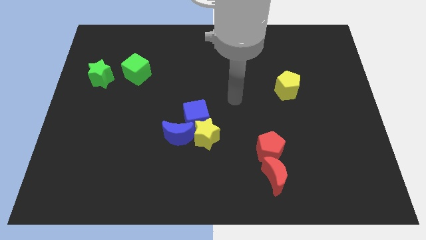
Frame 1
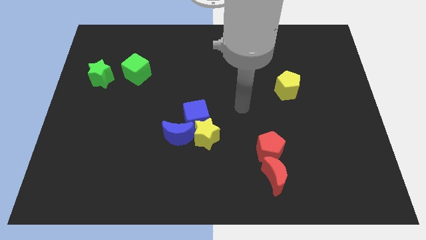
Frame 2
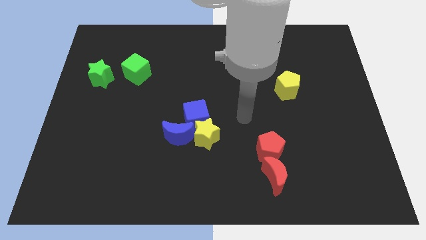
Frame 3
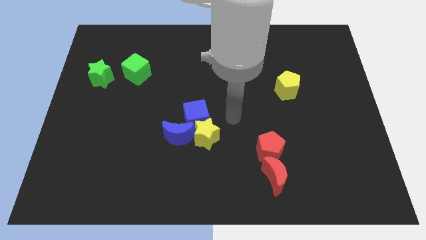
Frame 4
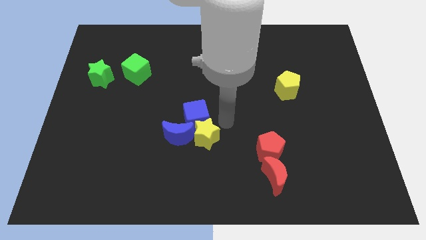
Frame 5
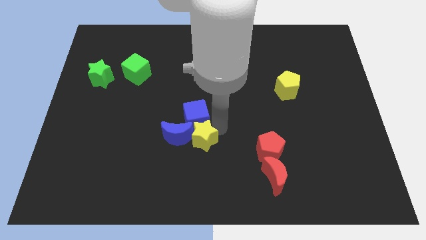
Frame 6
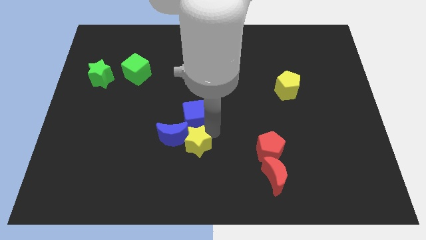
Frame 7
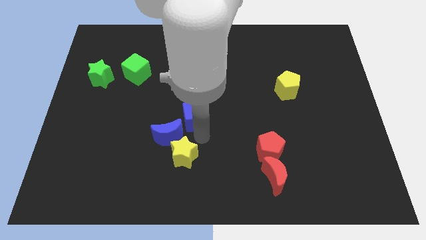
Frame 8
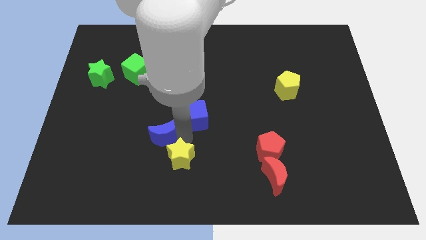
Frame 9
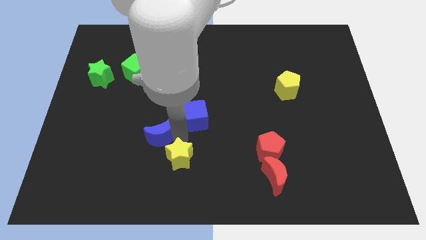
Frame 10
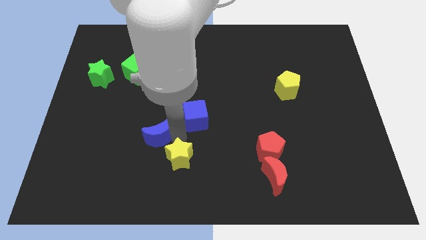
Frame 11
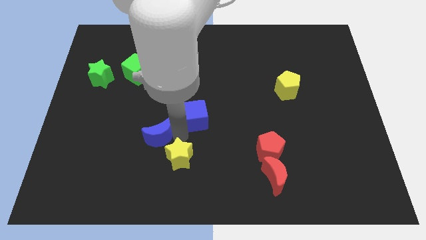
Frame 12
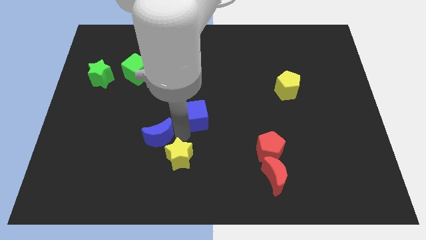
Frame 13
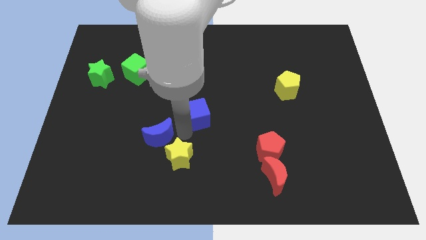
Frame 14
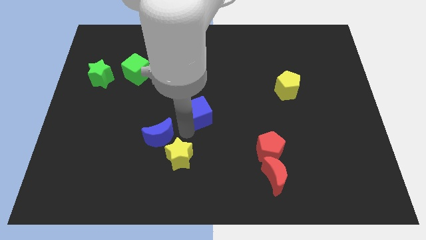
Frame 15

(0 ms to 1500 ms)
separate the blue cube from the yellow star and blue moon

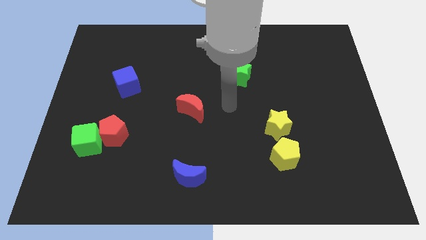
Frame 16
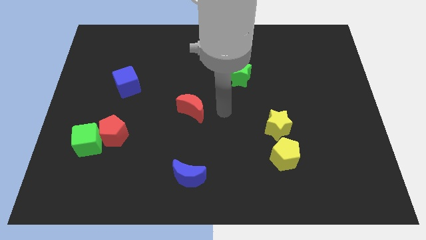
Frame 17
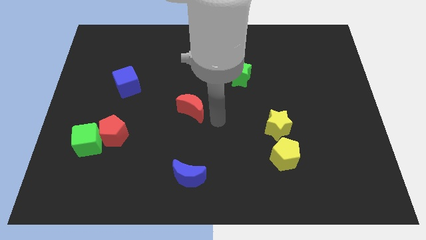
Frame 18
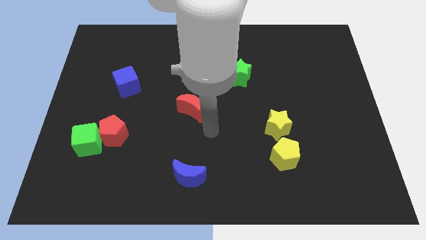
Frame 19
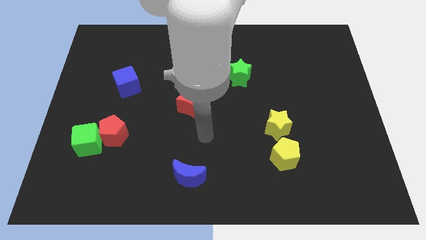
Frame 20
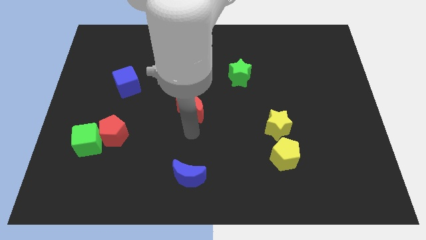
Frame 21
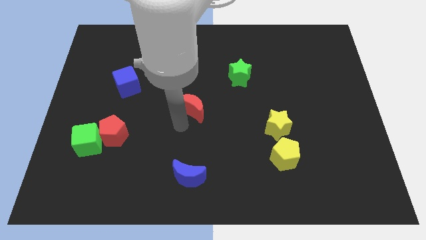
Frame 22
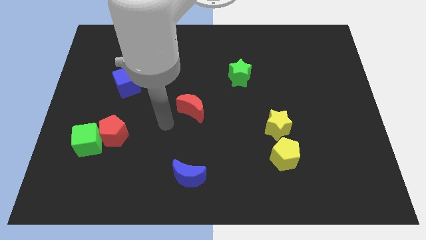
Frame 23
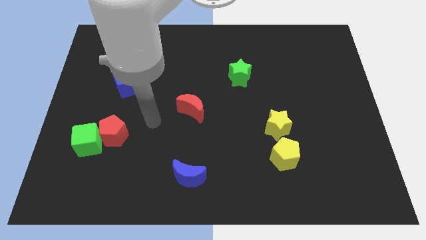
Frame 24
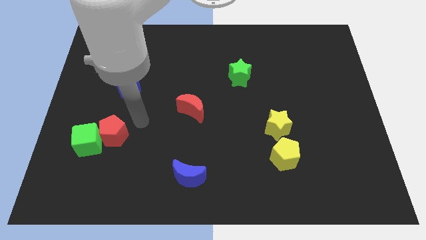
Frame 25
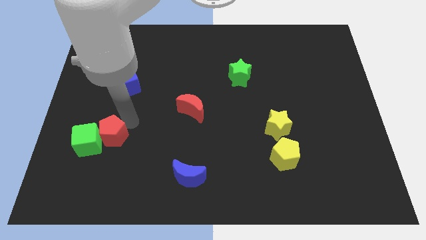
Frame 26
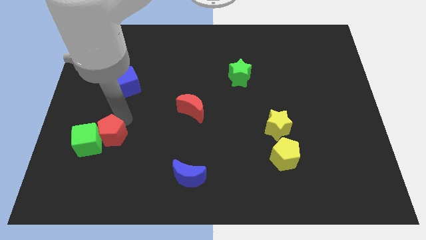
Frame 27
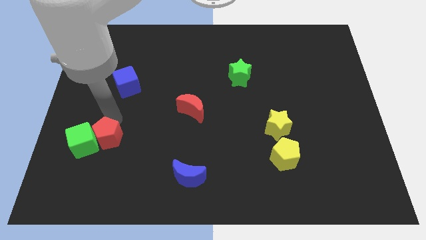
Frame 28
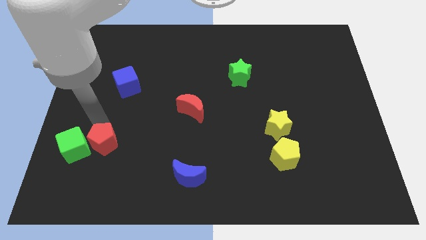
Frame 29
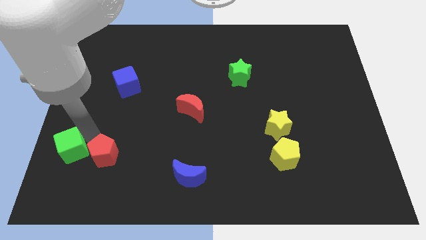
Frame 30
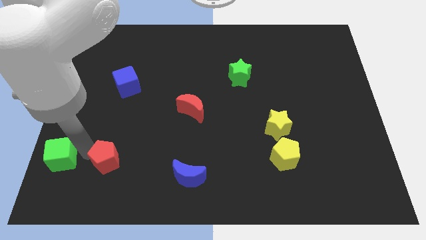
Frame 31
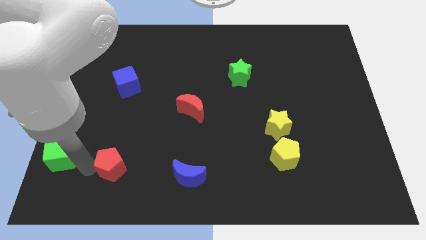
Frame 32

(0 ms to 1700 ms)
separate the red pentagon from the green cube

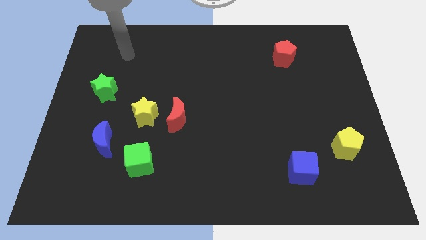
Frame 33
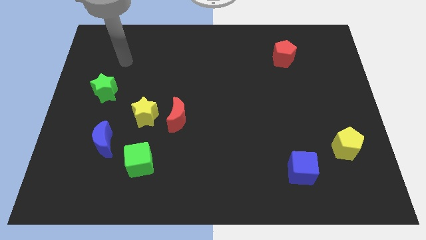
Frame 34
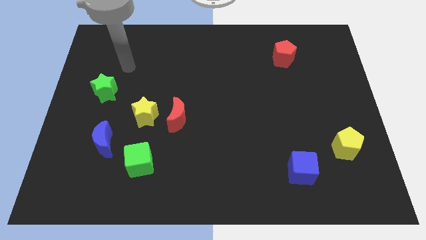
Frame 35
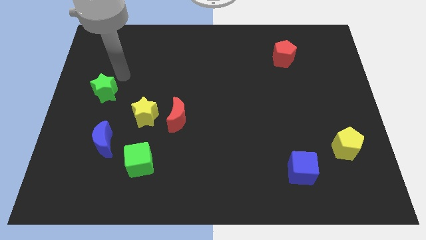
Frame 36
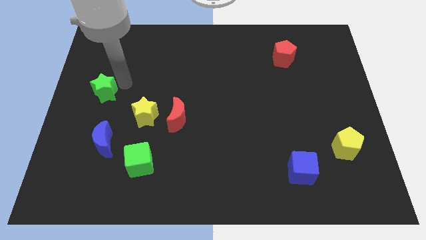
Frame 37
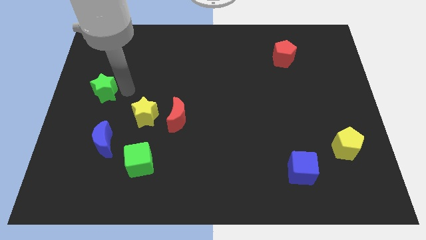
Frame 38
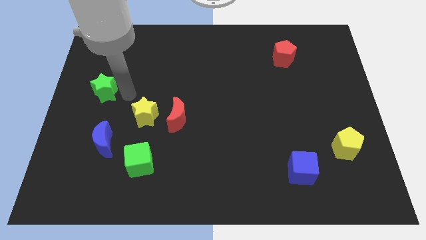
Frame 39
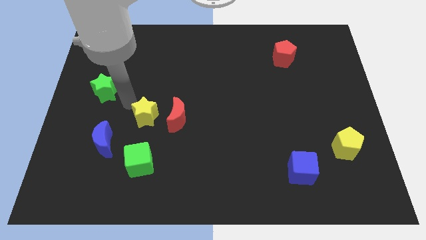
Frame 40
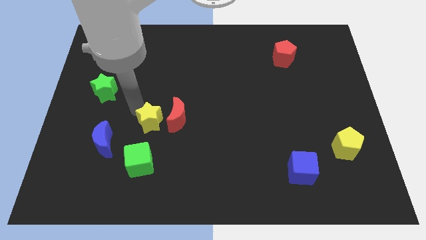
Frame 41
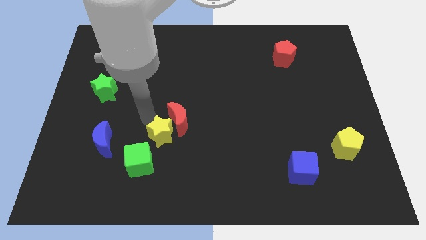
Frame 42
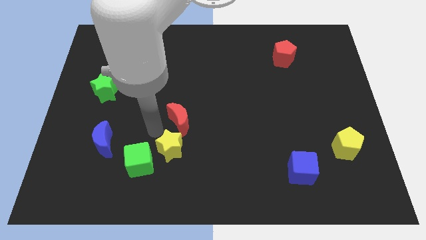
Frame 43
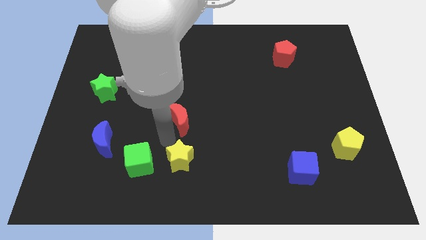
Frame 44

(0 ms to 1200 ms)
move the red moon away from the yellow star

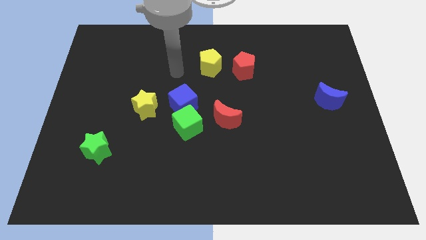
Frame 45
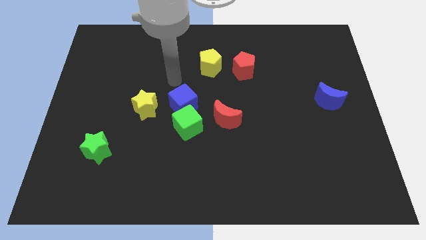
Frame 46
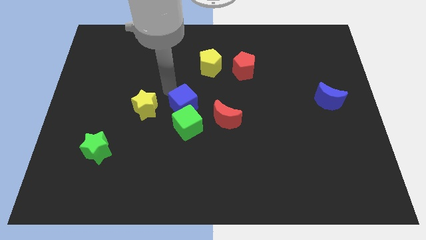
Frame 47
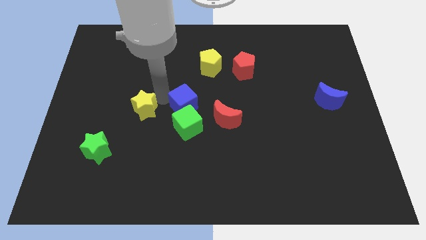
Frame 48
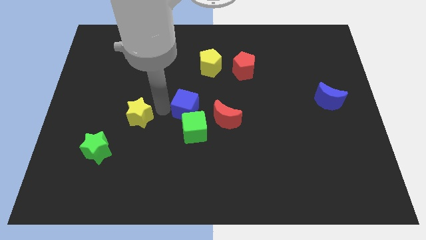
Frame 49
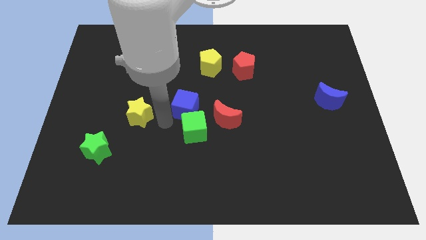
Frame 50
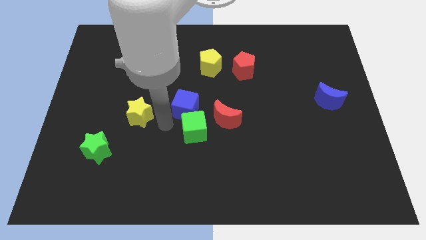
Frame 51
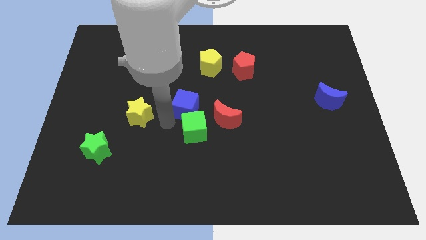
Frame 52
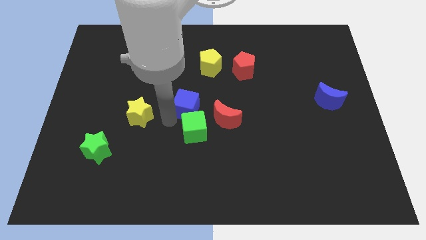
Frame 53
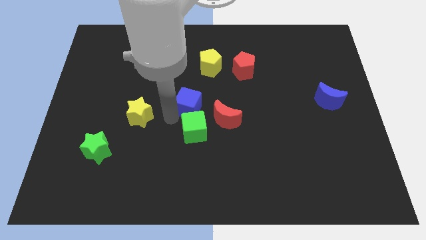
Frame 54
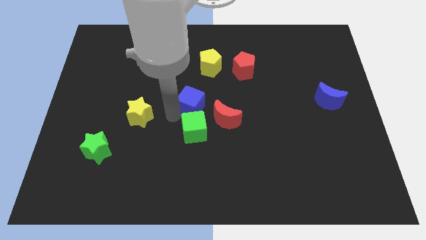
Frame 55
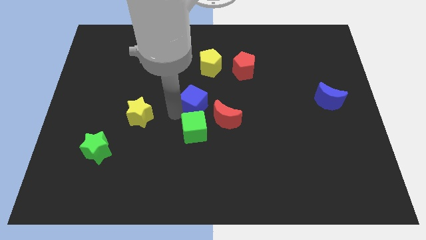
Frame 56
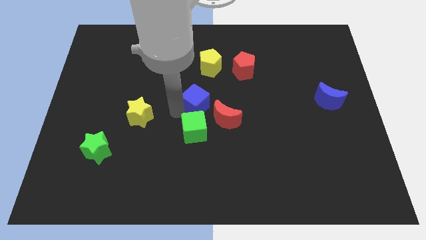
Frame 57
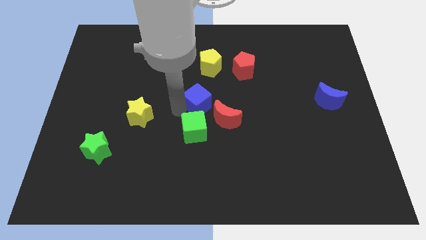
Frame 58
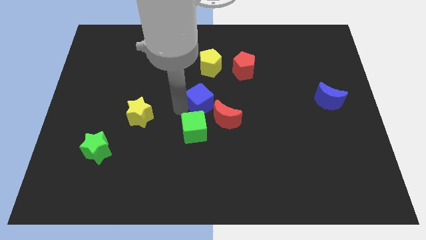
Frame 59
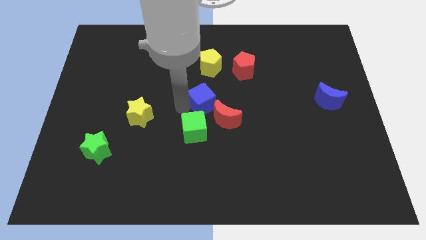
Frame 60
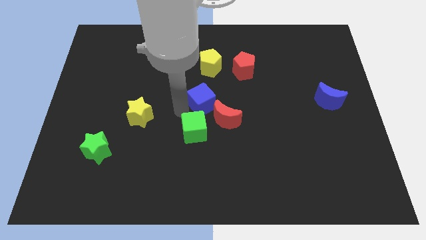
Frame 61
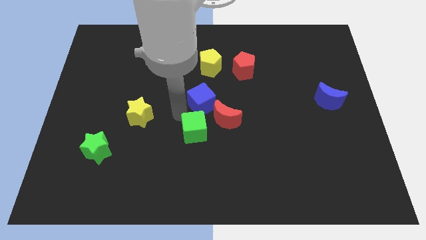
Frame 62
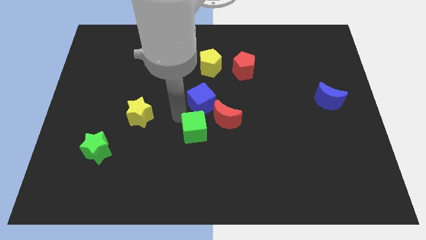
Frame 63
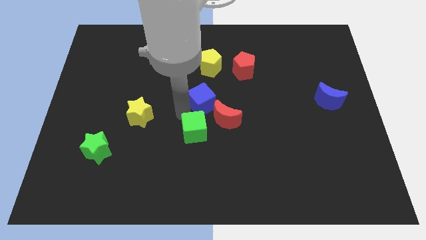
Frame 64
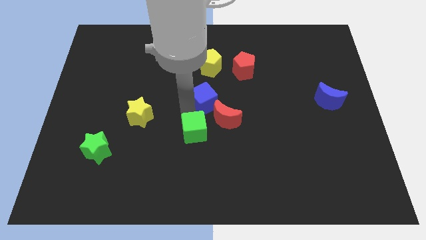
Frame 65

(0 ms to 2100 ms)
move the blue cube away from the green cube and yellow star

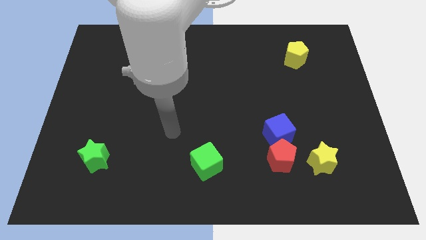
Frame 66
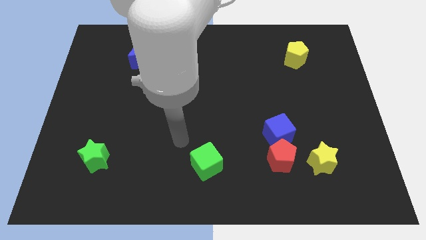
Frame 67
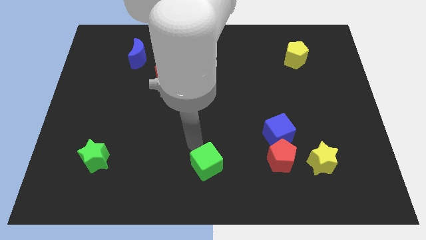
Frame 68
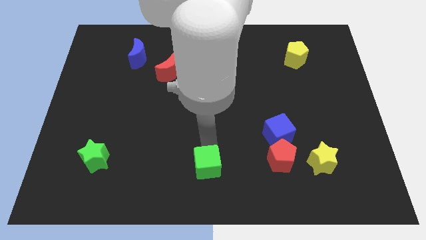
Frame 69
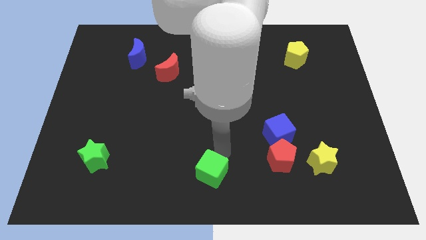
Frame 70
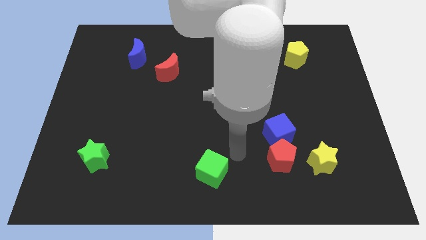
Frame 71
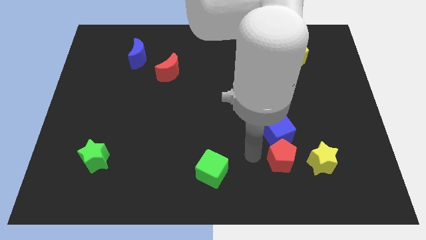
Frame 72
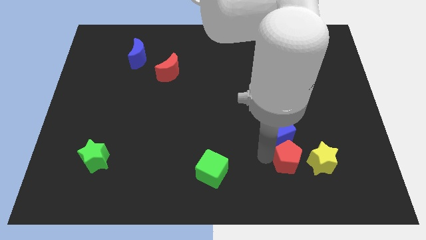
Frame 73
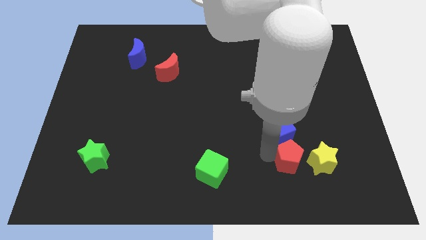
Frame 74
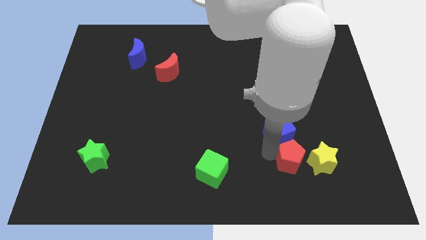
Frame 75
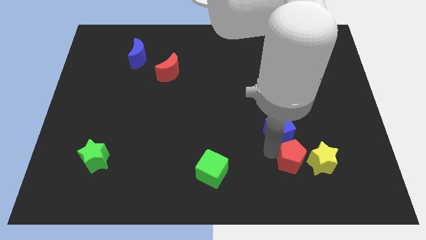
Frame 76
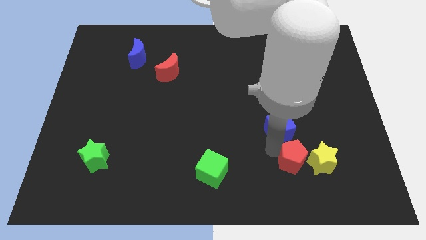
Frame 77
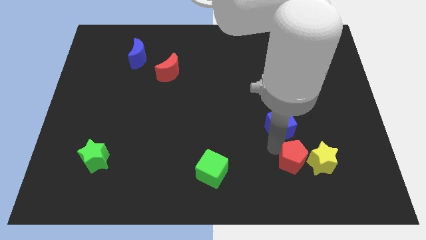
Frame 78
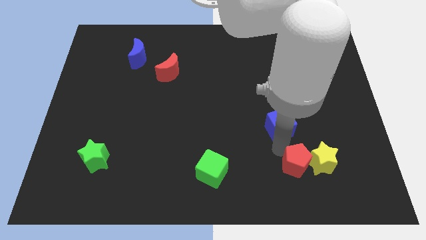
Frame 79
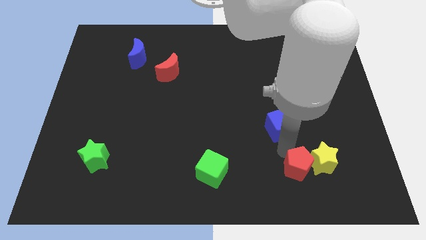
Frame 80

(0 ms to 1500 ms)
move the blue cube away from the red pentagon

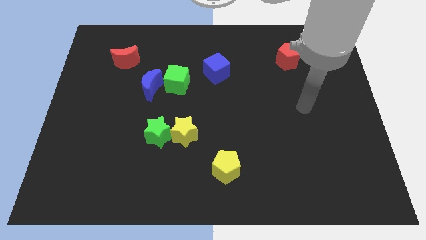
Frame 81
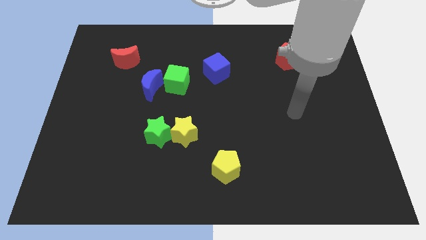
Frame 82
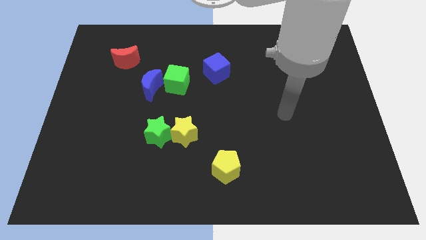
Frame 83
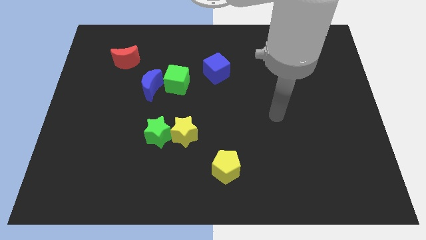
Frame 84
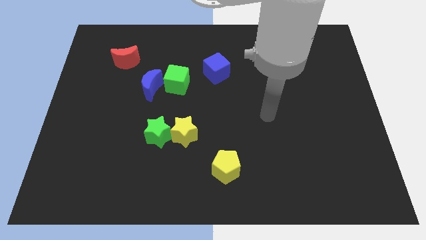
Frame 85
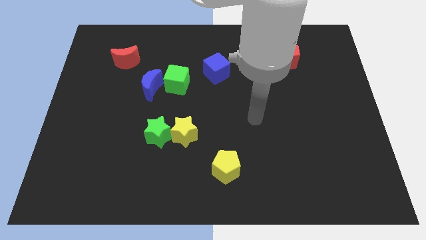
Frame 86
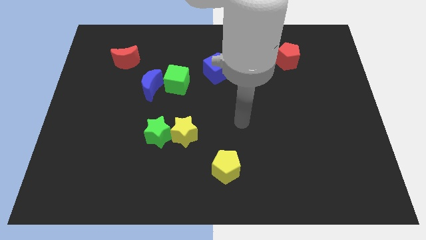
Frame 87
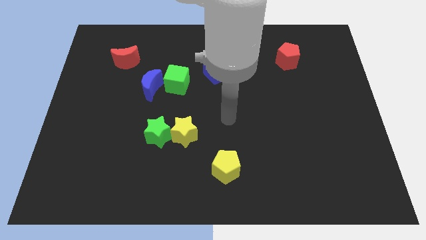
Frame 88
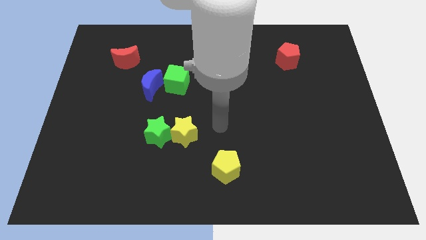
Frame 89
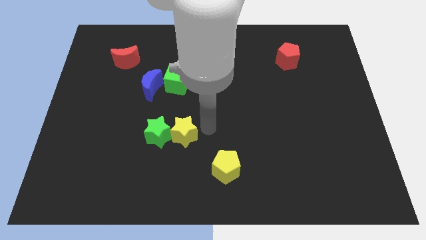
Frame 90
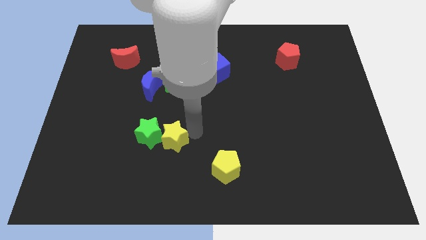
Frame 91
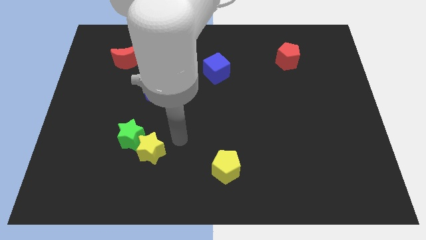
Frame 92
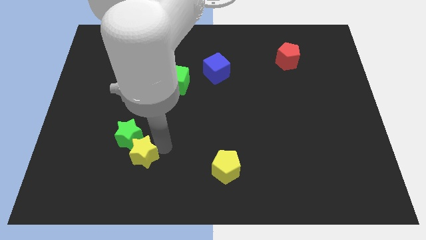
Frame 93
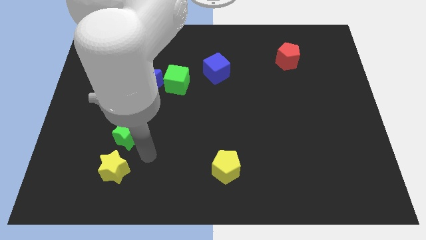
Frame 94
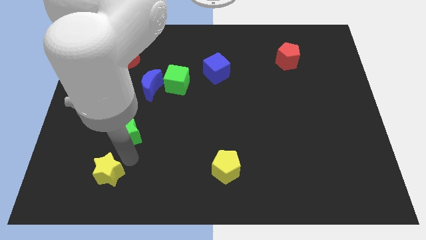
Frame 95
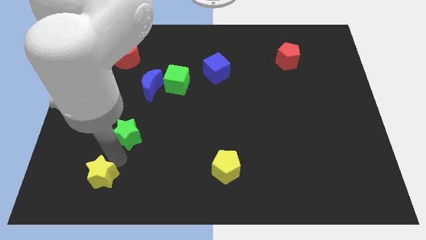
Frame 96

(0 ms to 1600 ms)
move the green star away from the yellow star
